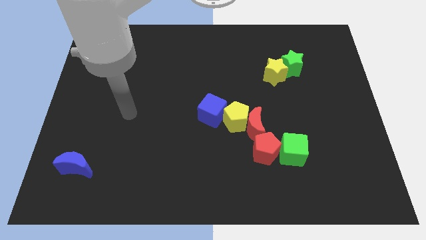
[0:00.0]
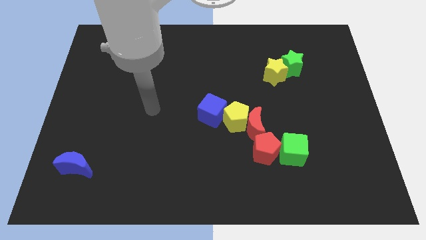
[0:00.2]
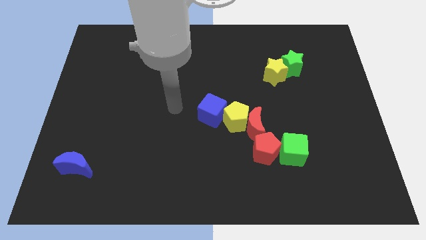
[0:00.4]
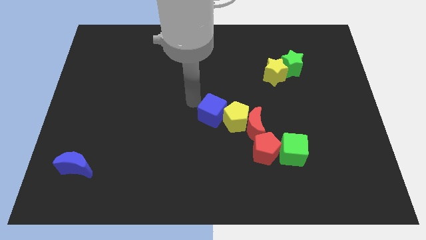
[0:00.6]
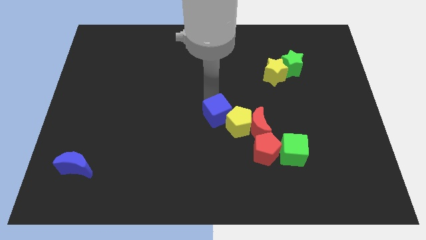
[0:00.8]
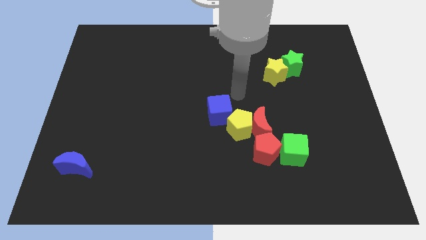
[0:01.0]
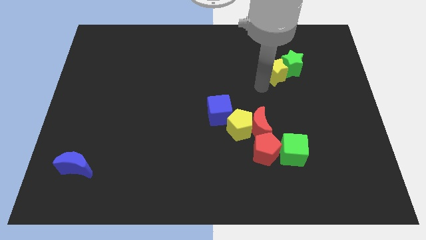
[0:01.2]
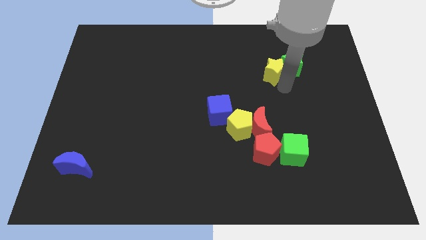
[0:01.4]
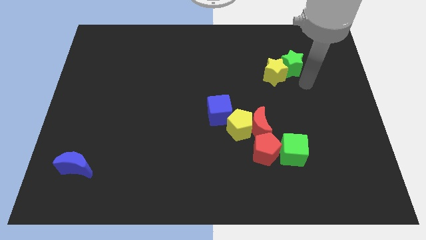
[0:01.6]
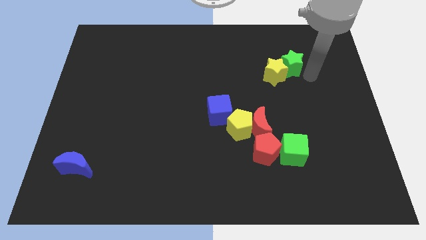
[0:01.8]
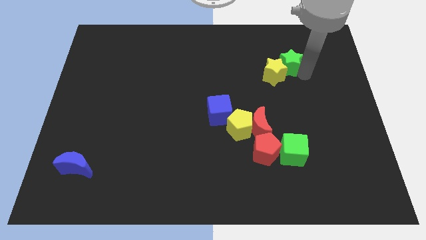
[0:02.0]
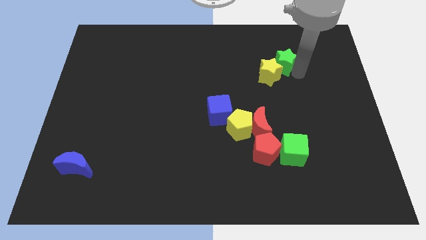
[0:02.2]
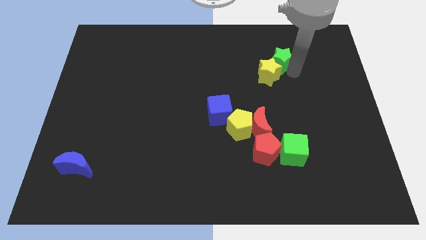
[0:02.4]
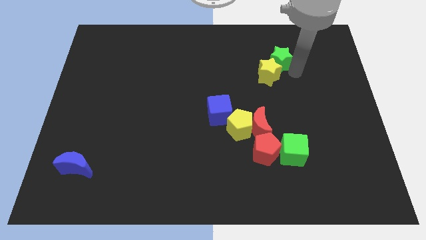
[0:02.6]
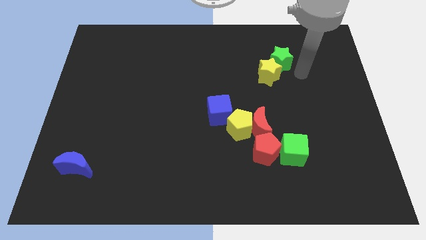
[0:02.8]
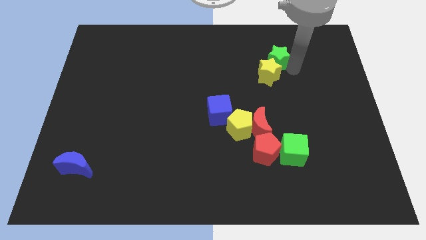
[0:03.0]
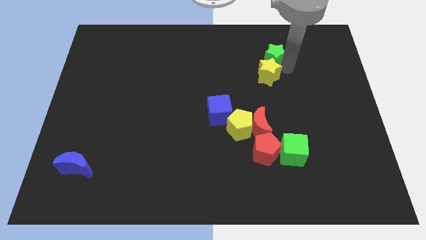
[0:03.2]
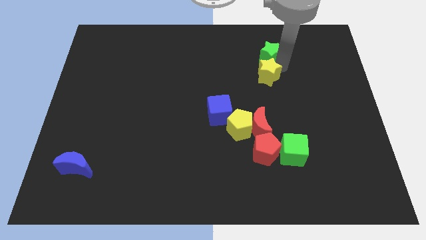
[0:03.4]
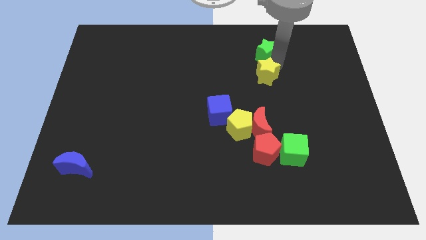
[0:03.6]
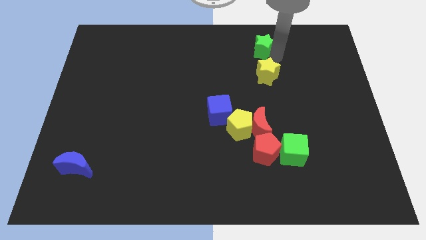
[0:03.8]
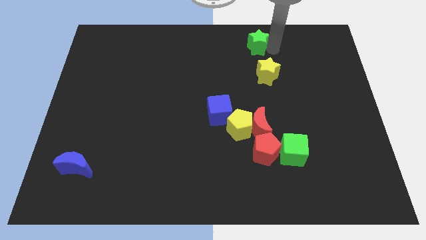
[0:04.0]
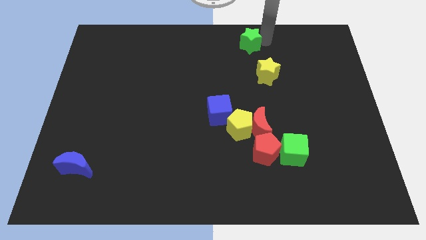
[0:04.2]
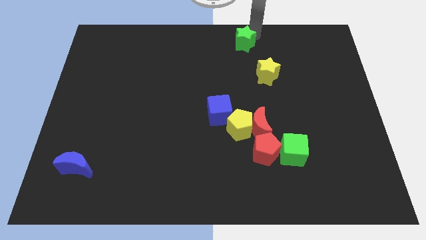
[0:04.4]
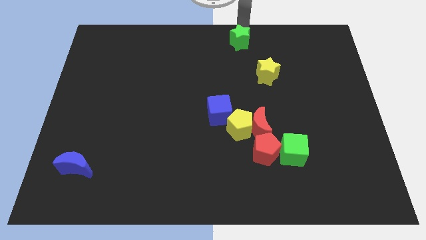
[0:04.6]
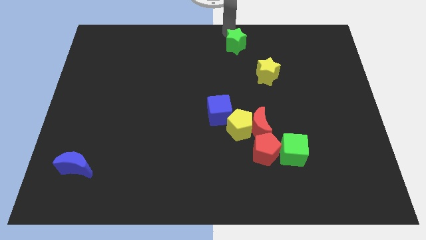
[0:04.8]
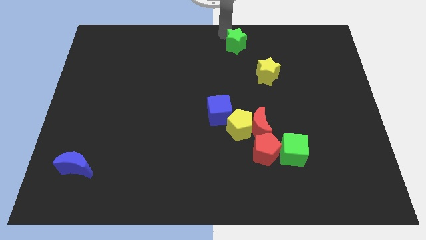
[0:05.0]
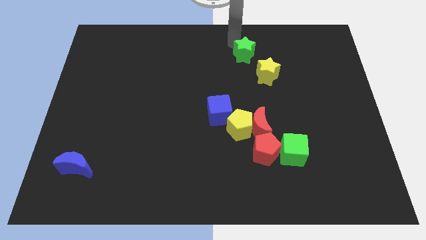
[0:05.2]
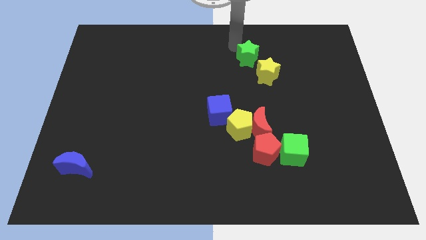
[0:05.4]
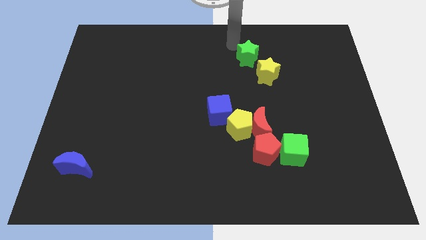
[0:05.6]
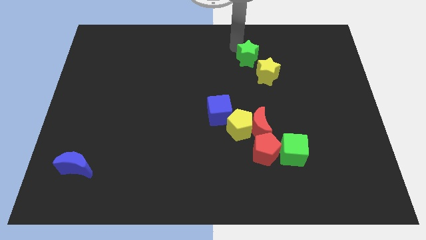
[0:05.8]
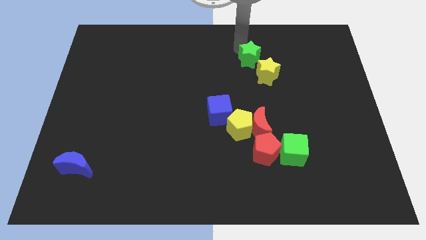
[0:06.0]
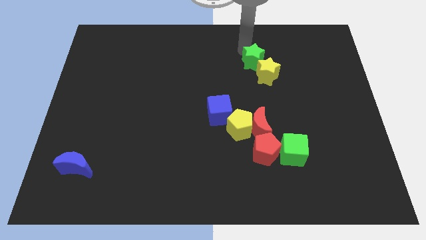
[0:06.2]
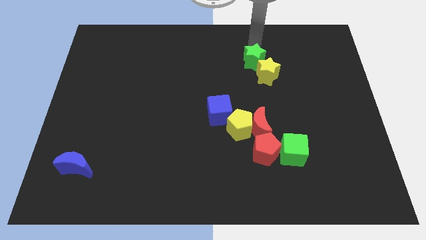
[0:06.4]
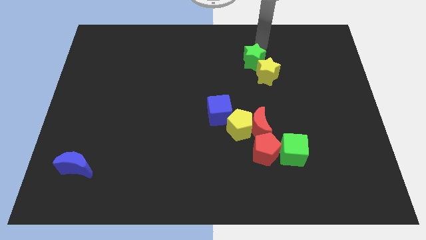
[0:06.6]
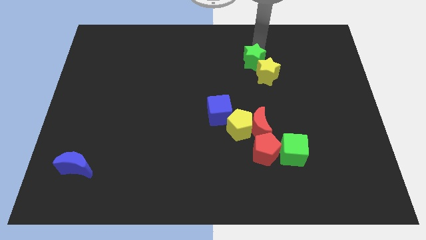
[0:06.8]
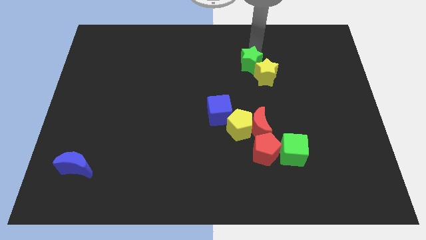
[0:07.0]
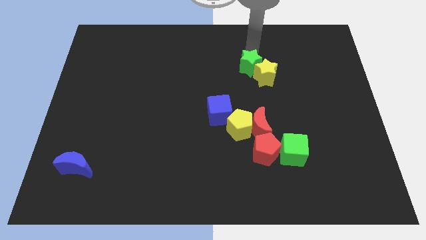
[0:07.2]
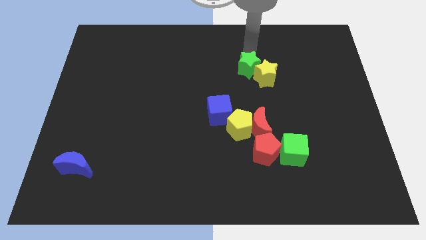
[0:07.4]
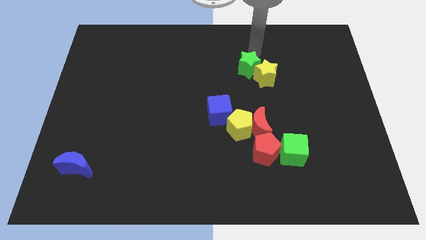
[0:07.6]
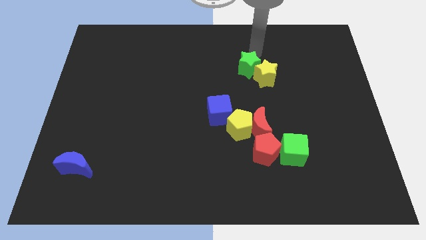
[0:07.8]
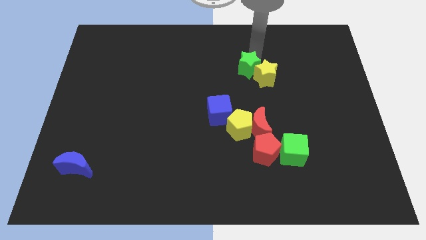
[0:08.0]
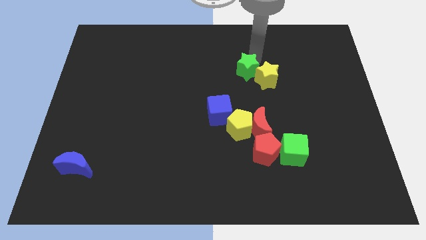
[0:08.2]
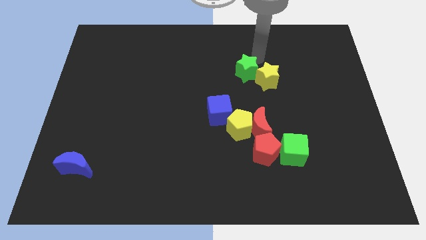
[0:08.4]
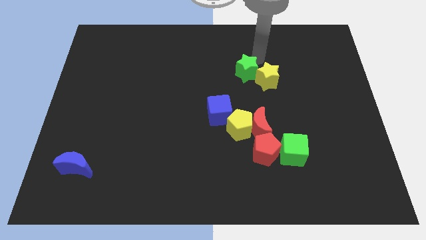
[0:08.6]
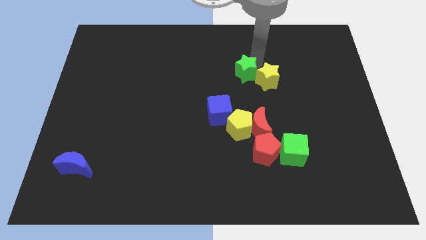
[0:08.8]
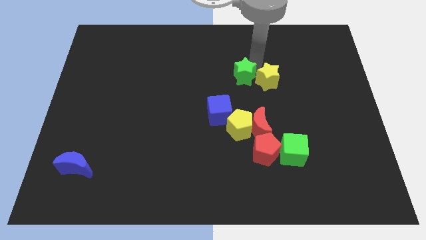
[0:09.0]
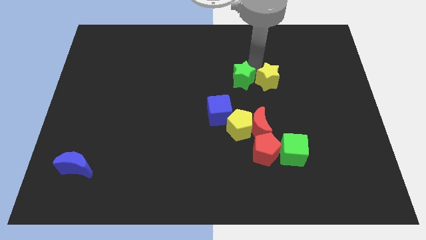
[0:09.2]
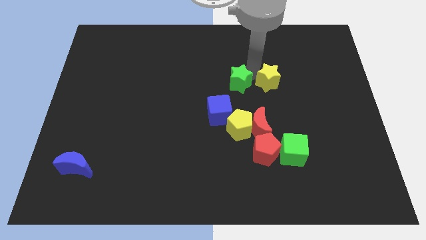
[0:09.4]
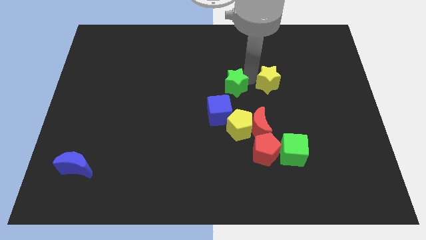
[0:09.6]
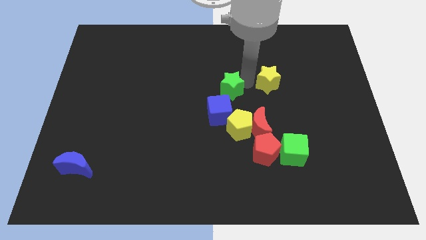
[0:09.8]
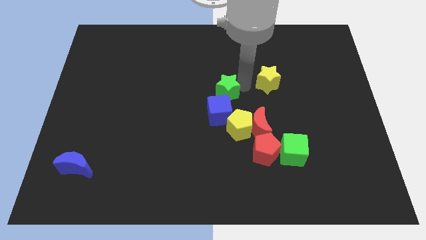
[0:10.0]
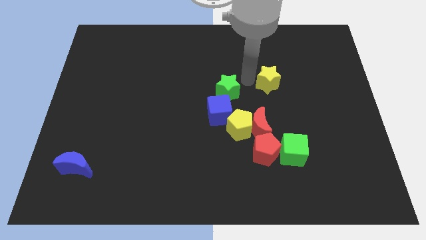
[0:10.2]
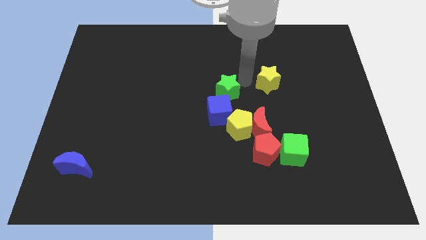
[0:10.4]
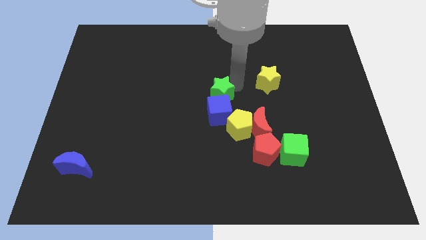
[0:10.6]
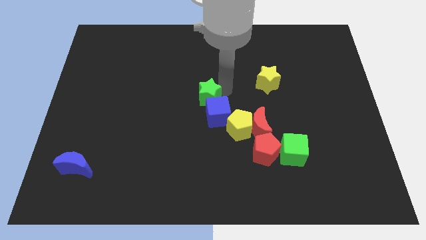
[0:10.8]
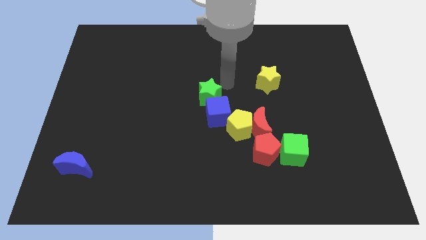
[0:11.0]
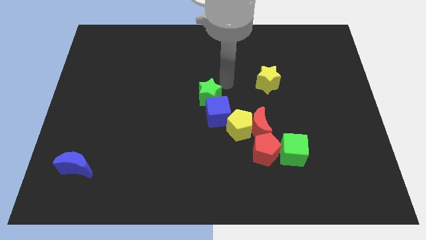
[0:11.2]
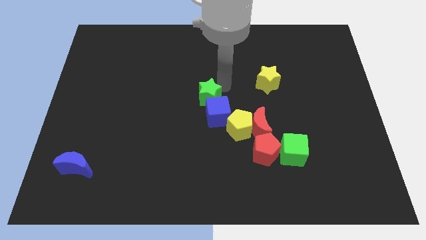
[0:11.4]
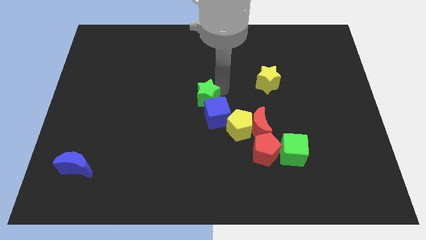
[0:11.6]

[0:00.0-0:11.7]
push the green star down and to the left

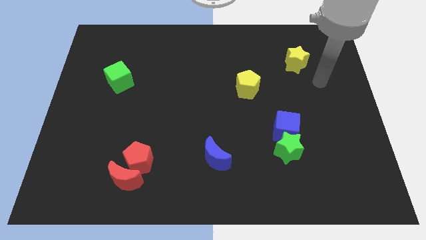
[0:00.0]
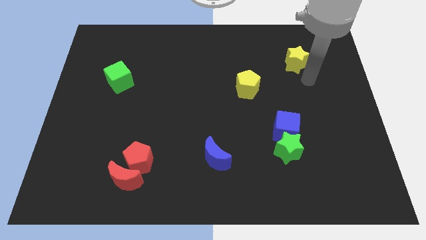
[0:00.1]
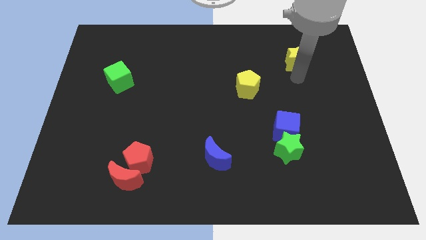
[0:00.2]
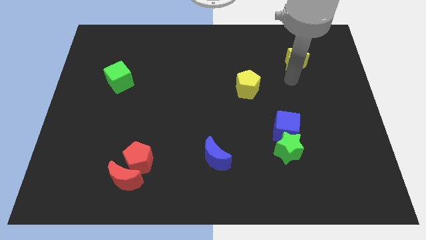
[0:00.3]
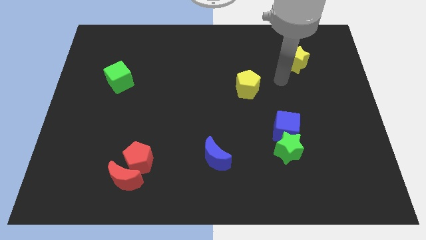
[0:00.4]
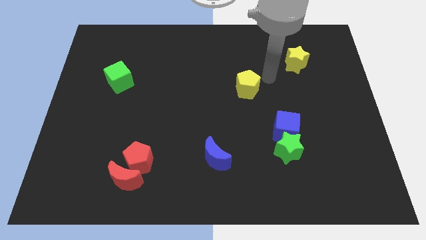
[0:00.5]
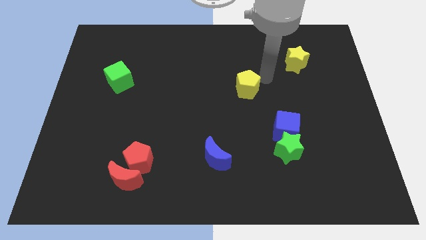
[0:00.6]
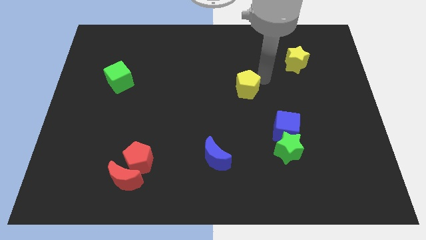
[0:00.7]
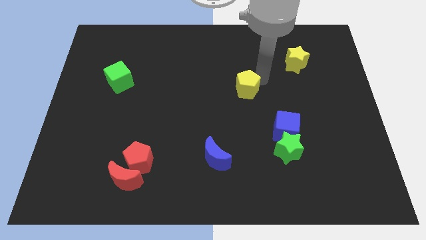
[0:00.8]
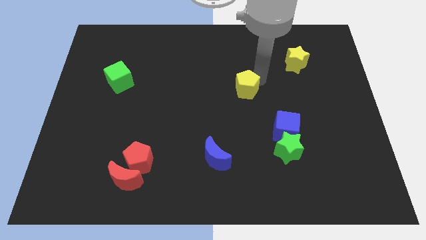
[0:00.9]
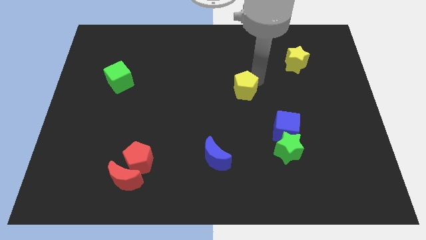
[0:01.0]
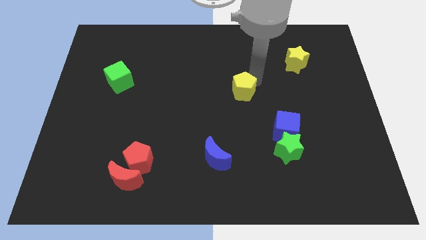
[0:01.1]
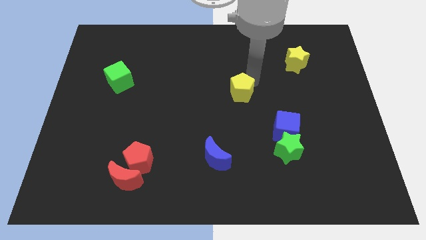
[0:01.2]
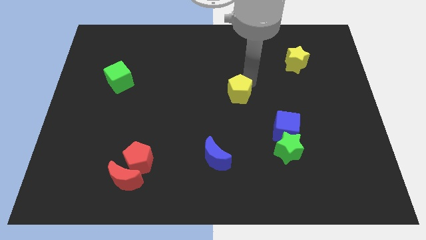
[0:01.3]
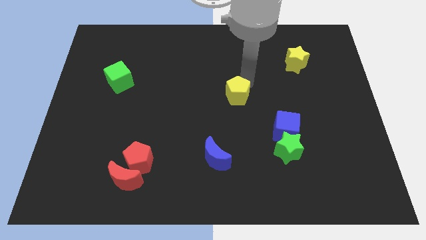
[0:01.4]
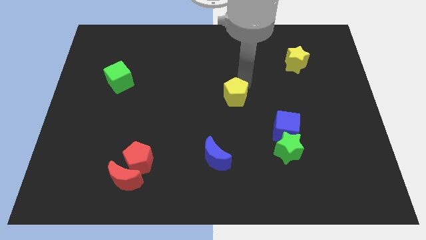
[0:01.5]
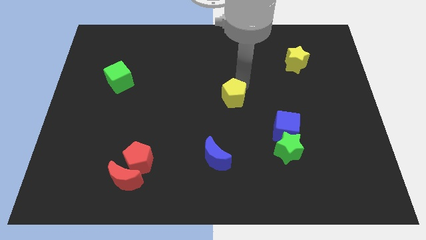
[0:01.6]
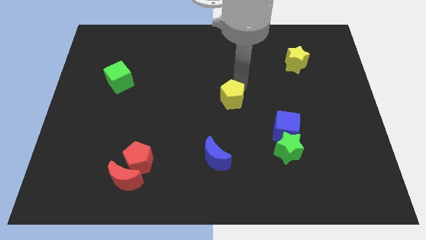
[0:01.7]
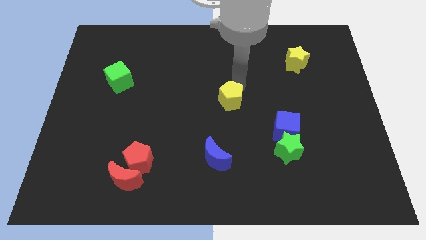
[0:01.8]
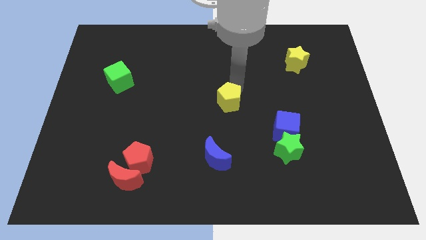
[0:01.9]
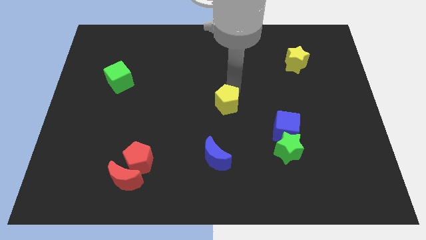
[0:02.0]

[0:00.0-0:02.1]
slightly push the yellow pentagon diagonally down and to the left

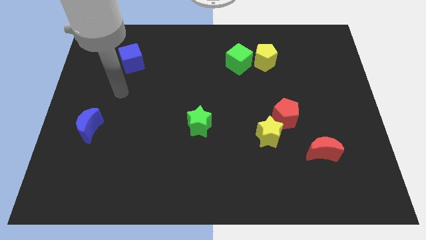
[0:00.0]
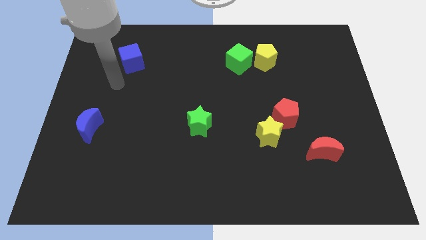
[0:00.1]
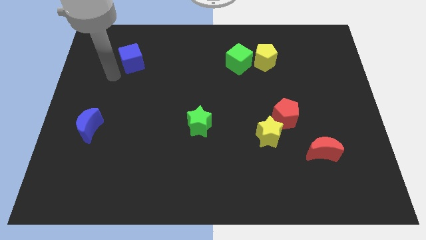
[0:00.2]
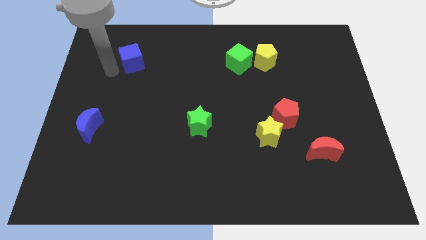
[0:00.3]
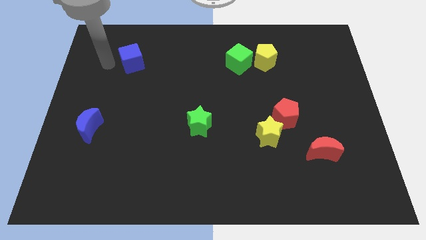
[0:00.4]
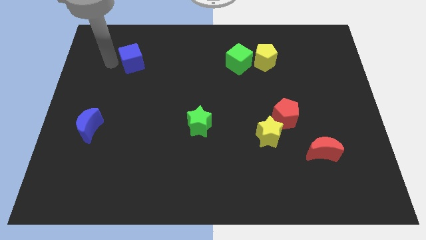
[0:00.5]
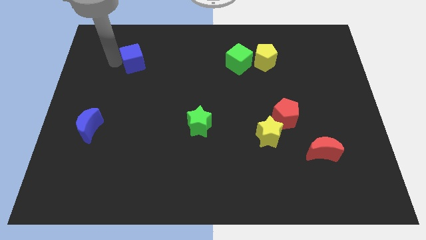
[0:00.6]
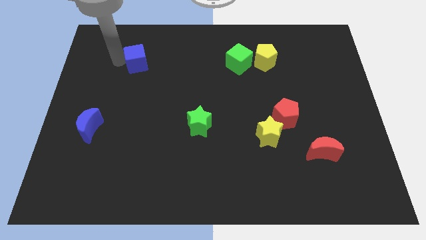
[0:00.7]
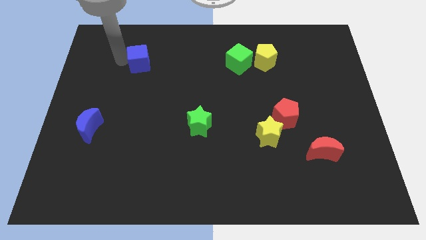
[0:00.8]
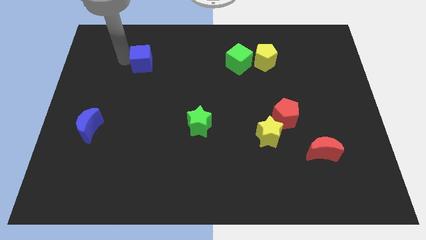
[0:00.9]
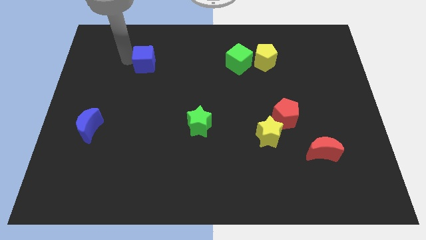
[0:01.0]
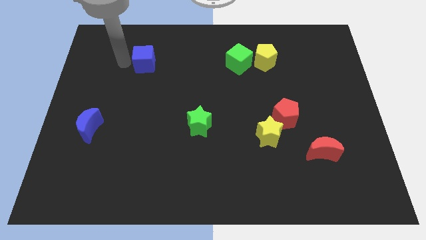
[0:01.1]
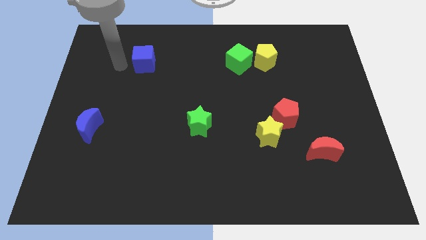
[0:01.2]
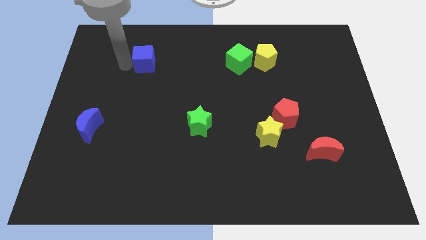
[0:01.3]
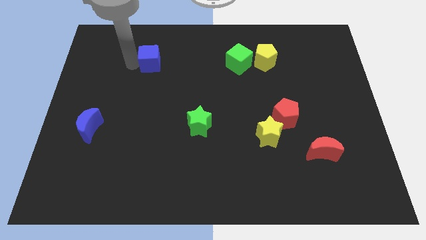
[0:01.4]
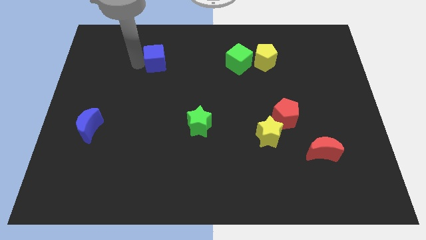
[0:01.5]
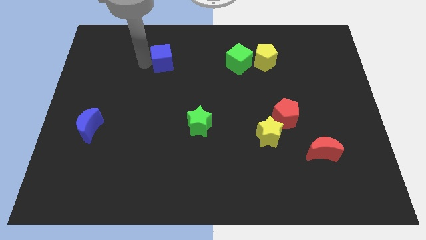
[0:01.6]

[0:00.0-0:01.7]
push the blue cube slightly to the right
